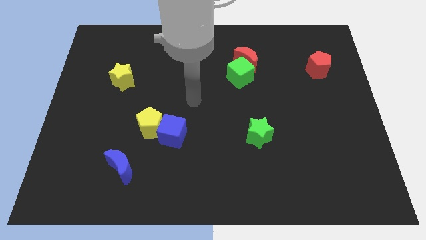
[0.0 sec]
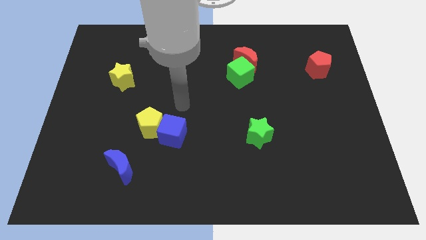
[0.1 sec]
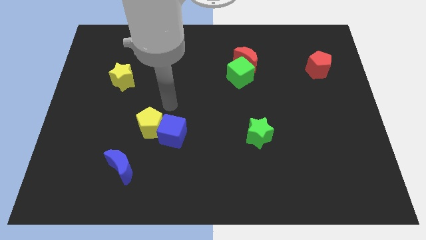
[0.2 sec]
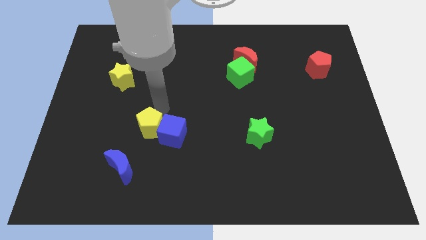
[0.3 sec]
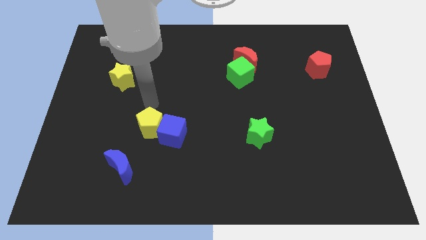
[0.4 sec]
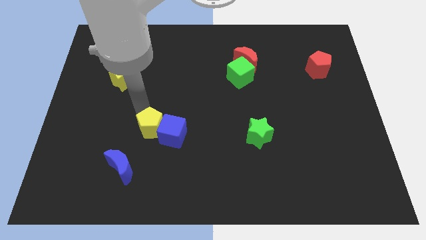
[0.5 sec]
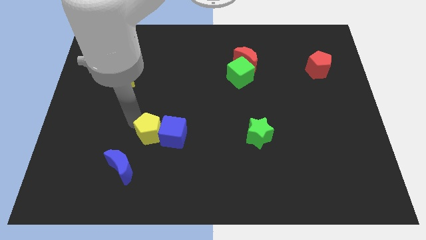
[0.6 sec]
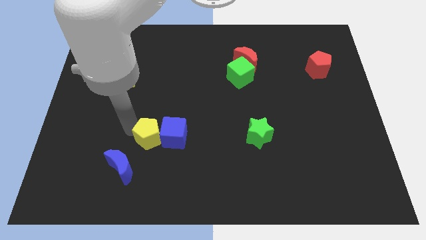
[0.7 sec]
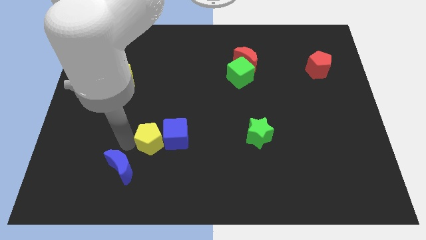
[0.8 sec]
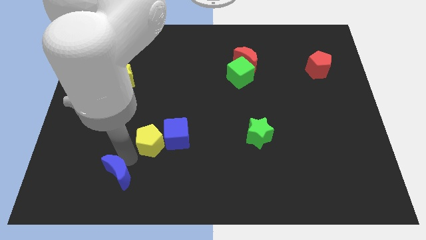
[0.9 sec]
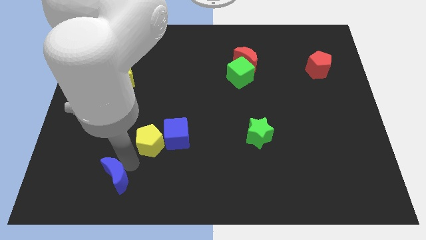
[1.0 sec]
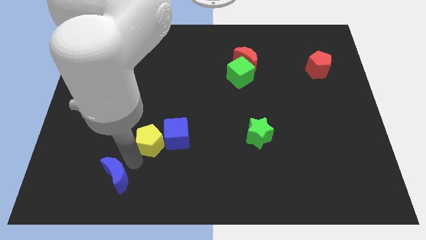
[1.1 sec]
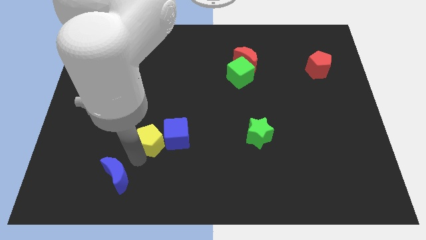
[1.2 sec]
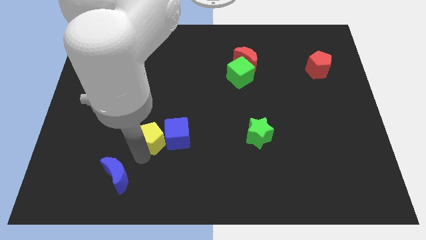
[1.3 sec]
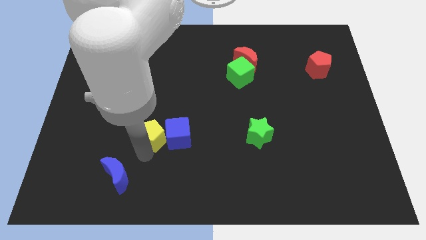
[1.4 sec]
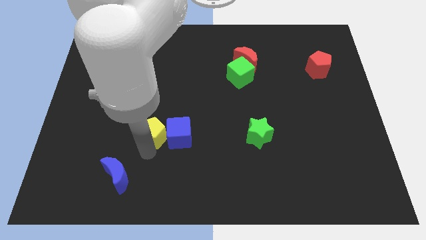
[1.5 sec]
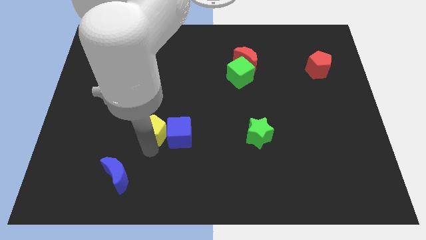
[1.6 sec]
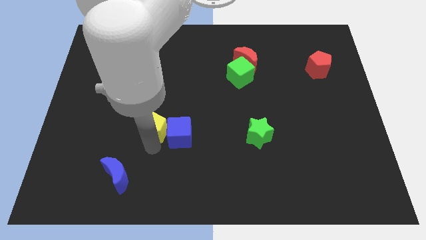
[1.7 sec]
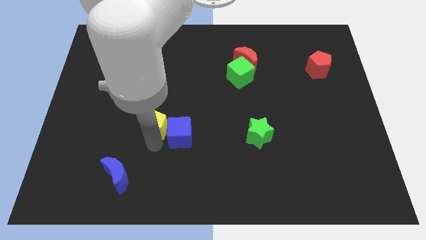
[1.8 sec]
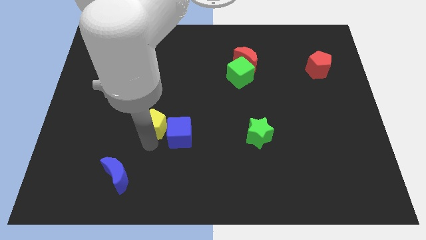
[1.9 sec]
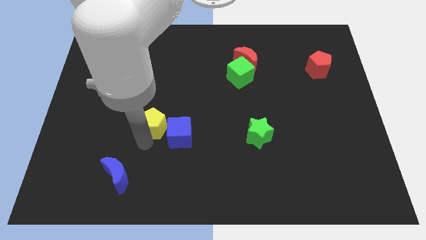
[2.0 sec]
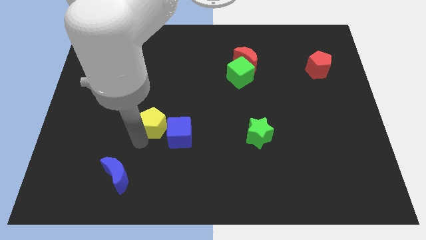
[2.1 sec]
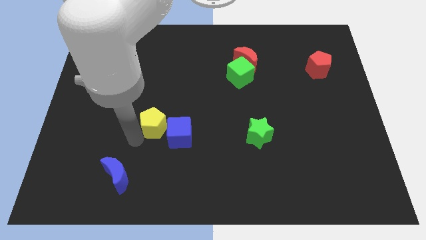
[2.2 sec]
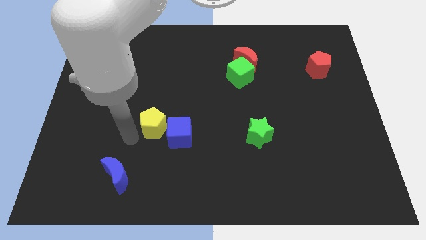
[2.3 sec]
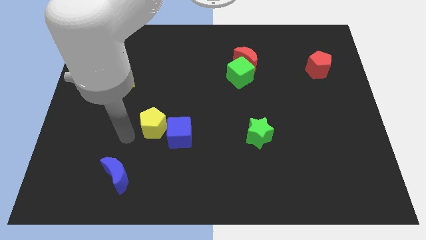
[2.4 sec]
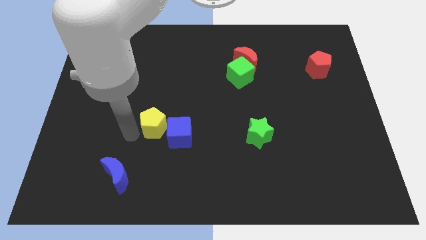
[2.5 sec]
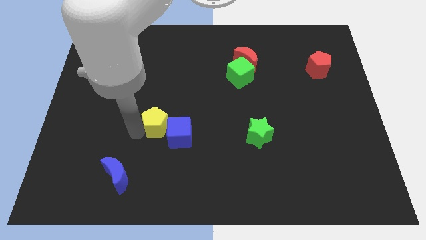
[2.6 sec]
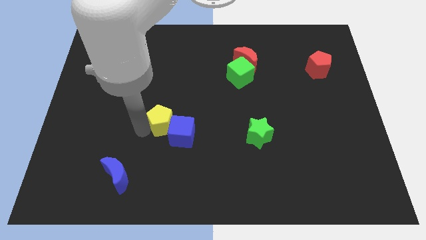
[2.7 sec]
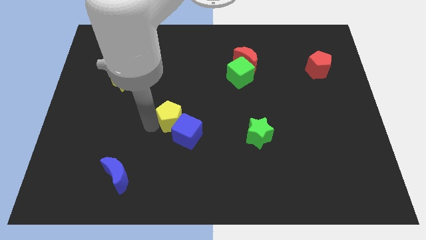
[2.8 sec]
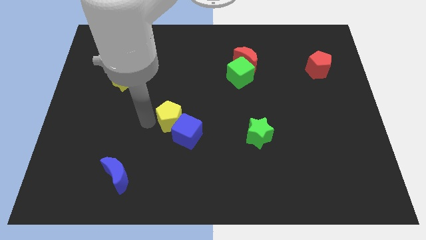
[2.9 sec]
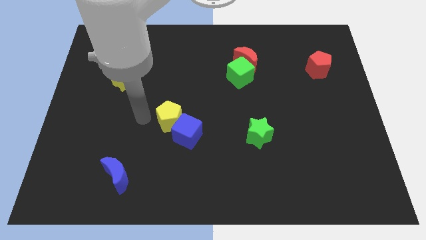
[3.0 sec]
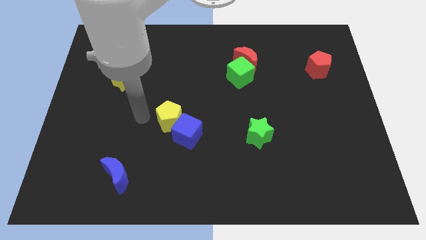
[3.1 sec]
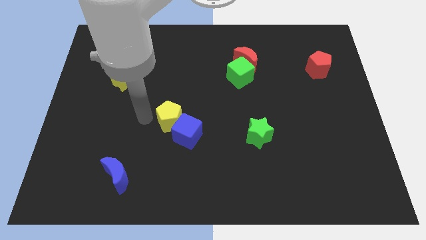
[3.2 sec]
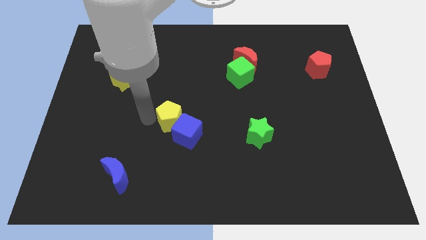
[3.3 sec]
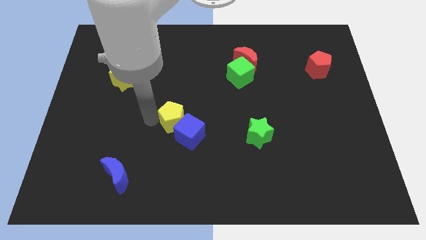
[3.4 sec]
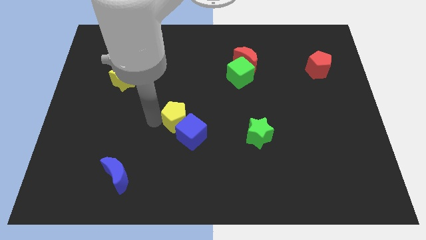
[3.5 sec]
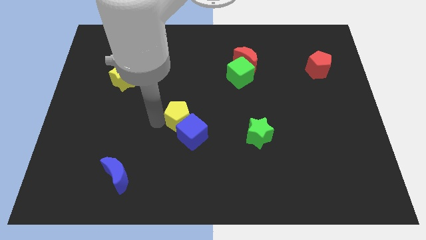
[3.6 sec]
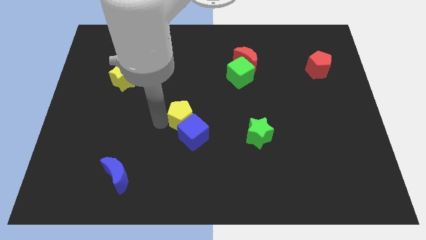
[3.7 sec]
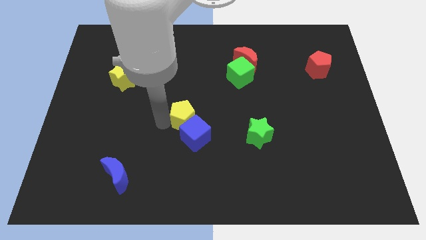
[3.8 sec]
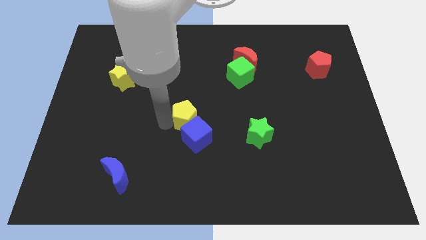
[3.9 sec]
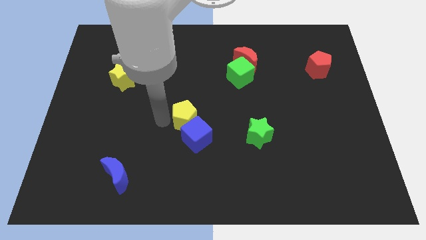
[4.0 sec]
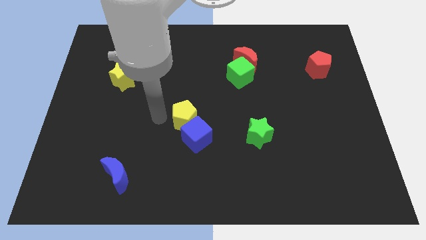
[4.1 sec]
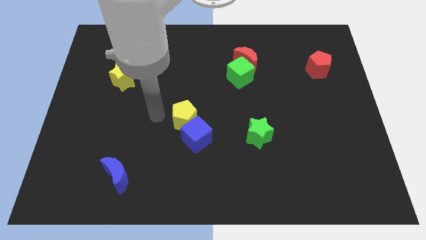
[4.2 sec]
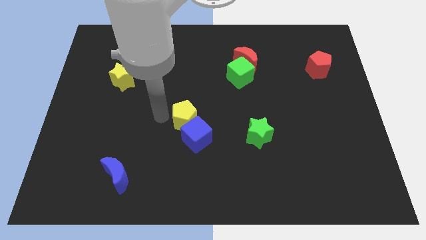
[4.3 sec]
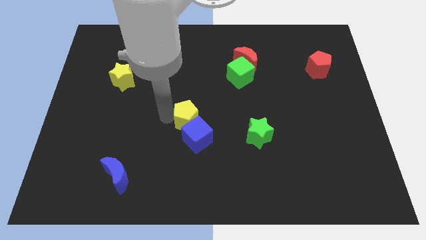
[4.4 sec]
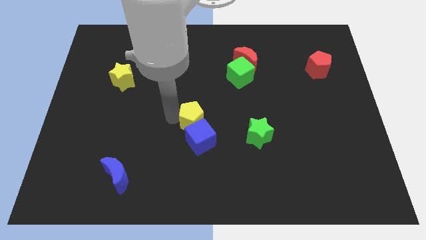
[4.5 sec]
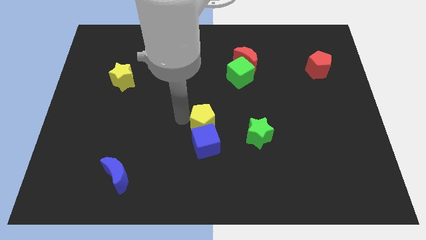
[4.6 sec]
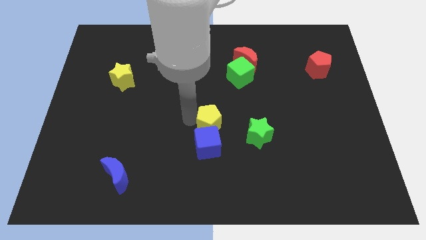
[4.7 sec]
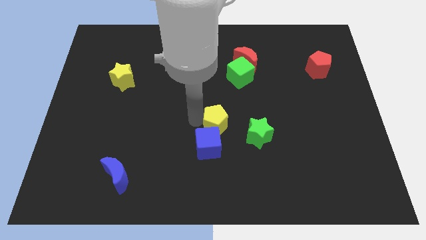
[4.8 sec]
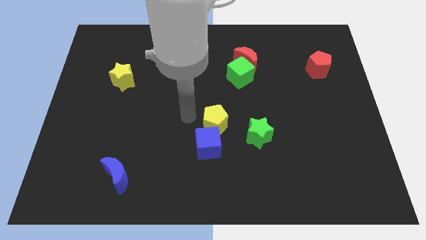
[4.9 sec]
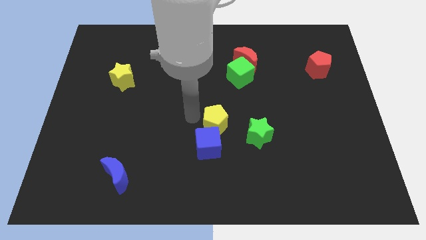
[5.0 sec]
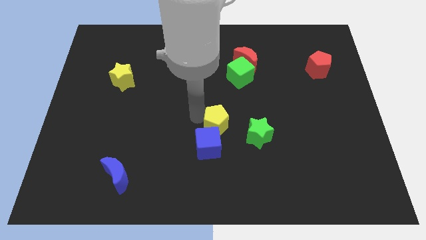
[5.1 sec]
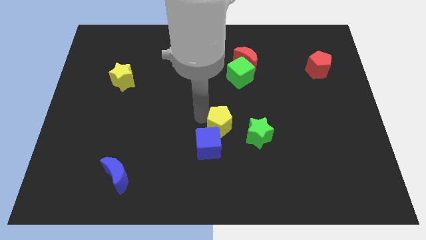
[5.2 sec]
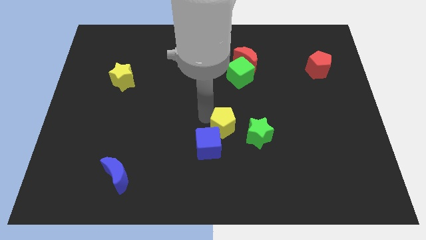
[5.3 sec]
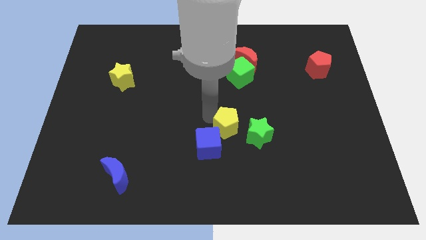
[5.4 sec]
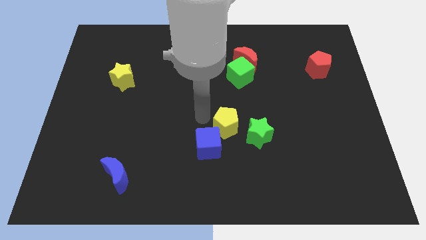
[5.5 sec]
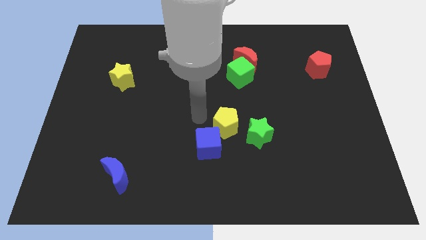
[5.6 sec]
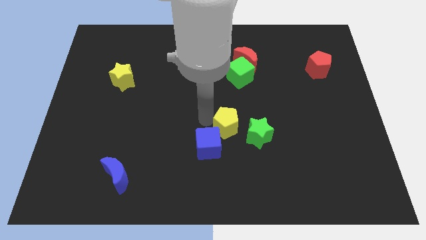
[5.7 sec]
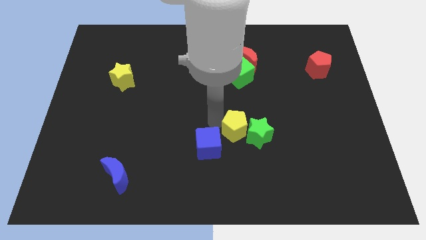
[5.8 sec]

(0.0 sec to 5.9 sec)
put the yellow pentagon close to the green star

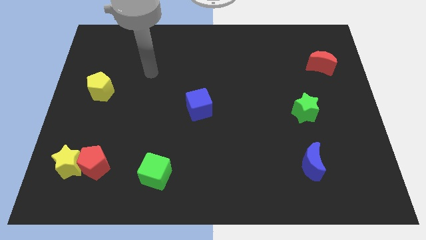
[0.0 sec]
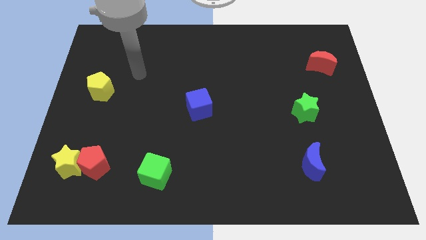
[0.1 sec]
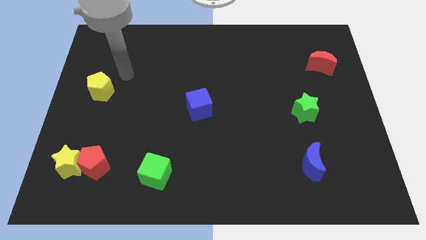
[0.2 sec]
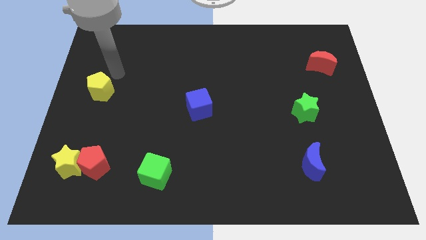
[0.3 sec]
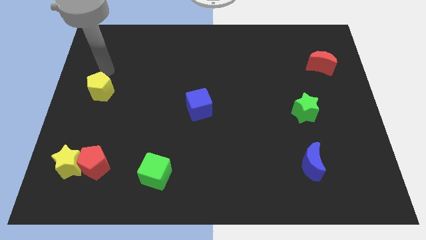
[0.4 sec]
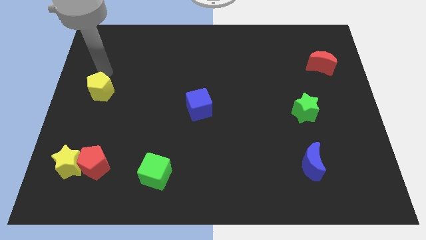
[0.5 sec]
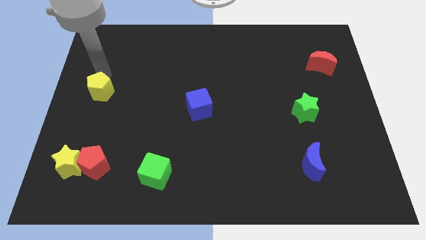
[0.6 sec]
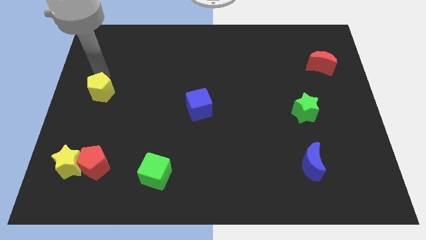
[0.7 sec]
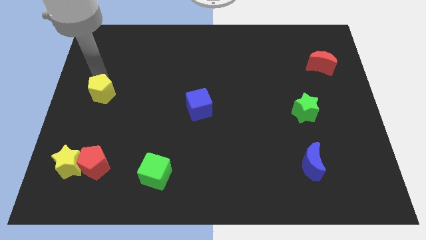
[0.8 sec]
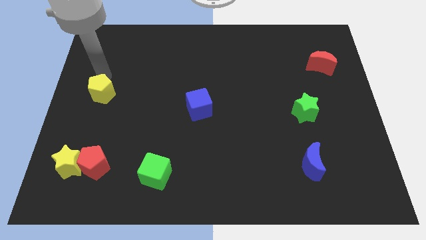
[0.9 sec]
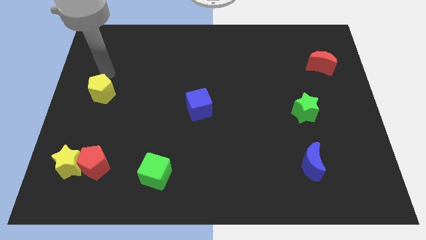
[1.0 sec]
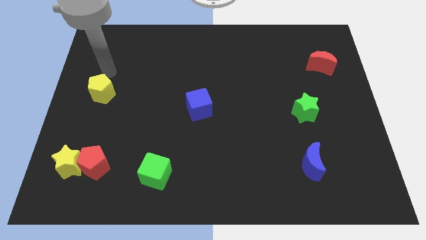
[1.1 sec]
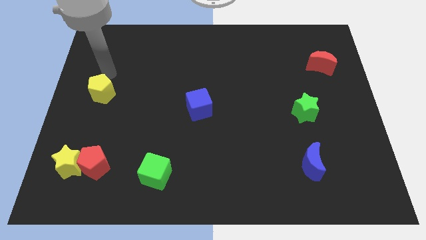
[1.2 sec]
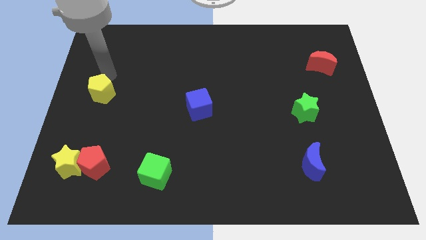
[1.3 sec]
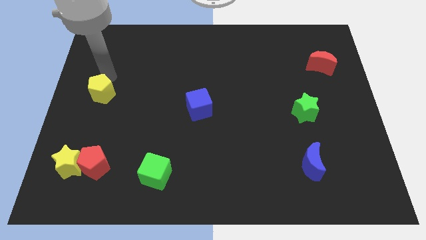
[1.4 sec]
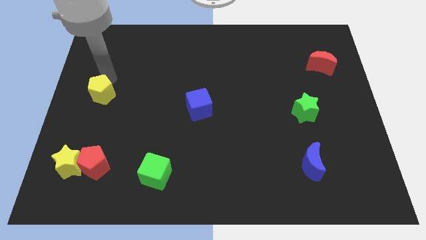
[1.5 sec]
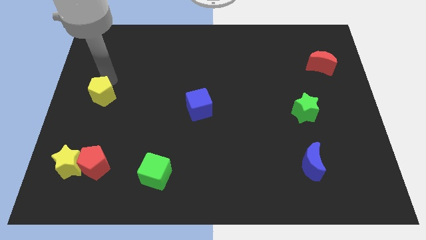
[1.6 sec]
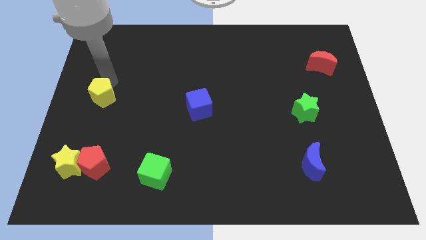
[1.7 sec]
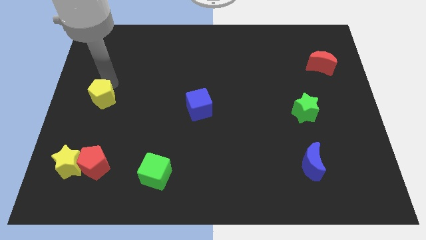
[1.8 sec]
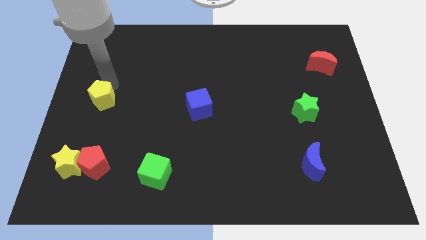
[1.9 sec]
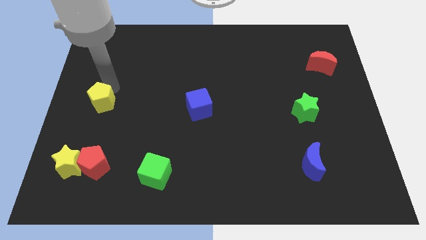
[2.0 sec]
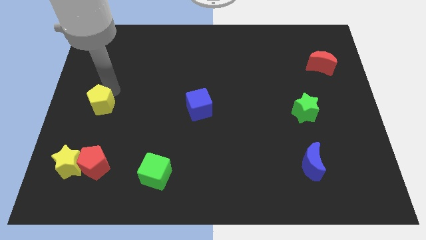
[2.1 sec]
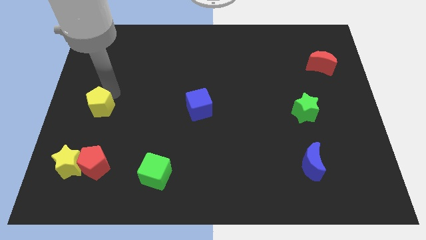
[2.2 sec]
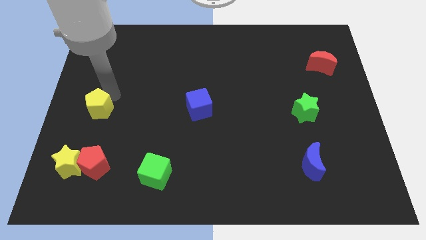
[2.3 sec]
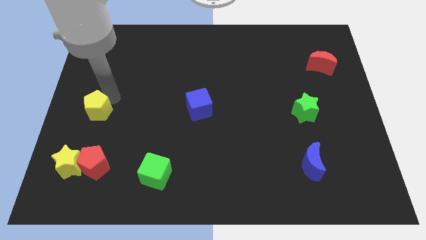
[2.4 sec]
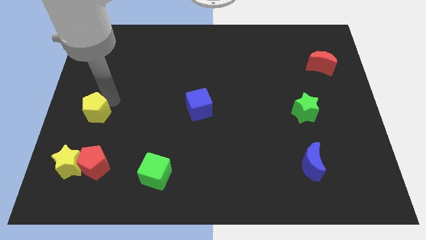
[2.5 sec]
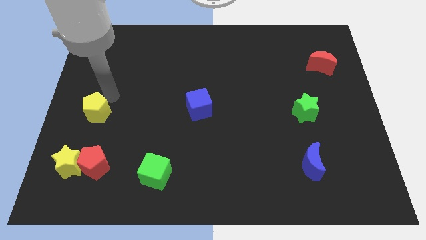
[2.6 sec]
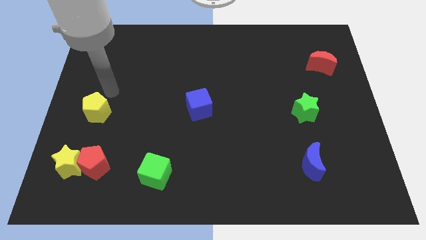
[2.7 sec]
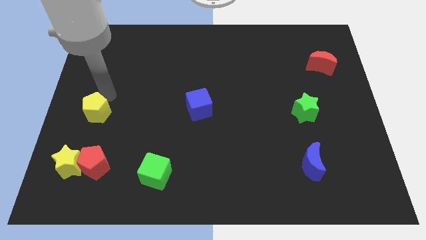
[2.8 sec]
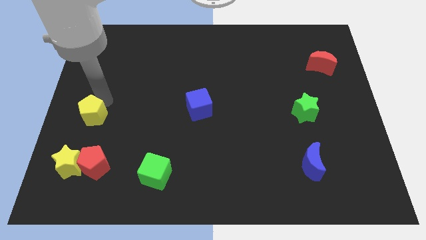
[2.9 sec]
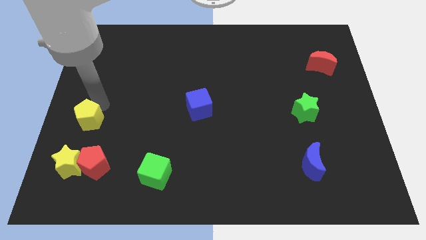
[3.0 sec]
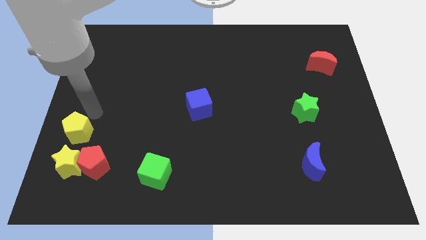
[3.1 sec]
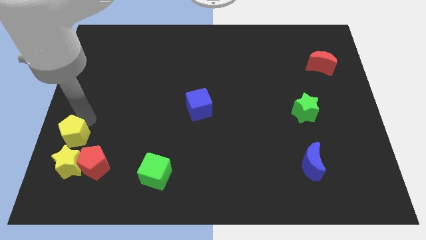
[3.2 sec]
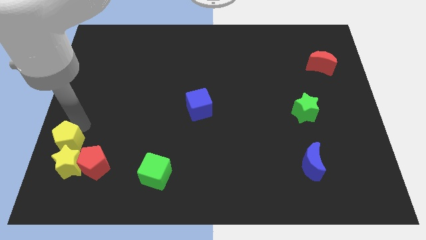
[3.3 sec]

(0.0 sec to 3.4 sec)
move the yellow pentagon next to the yellow star
